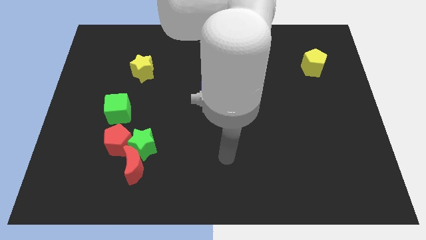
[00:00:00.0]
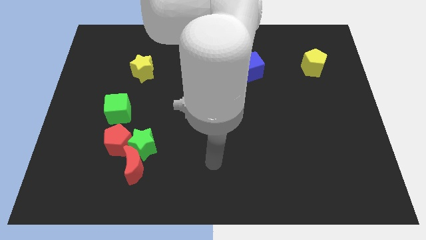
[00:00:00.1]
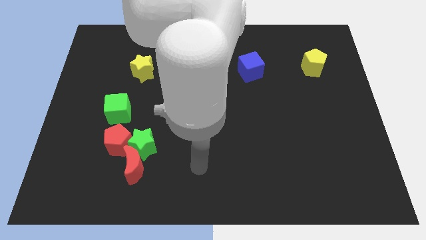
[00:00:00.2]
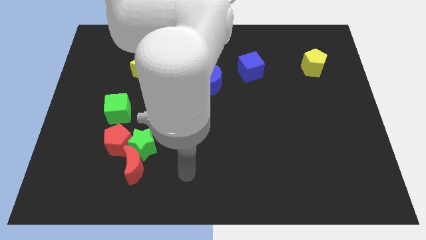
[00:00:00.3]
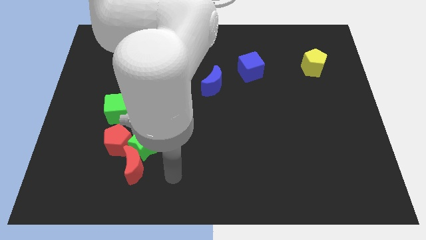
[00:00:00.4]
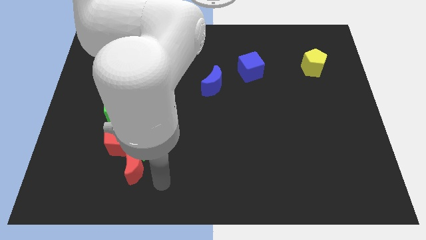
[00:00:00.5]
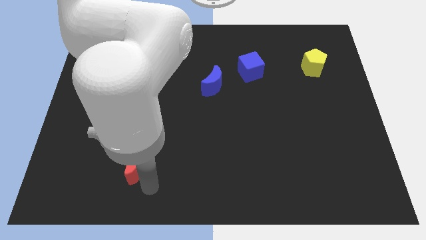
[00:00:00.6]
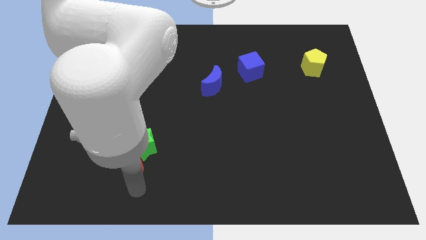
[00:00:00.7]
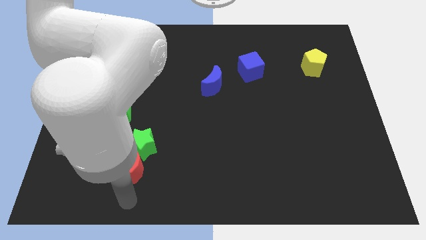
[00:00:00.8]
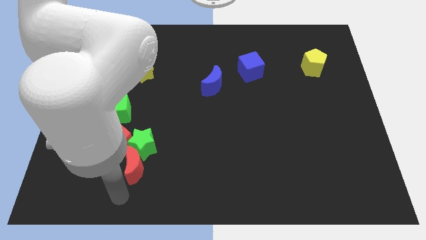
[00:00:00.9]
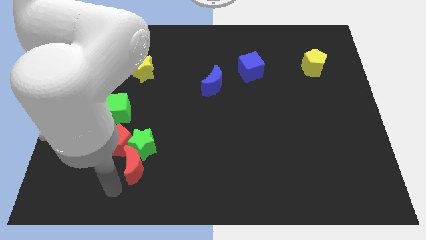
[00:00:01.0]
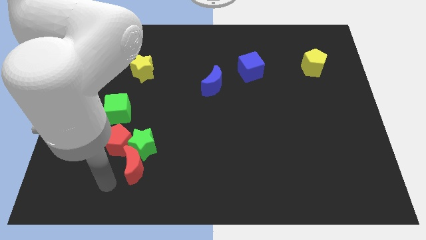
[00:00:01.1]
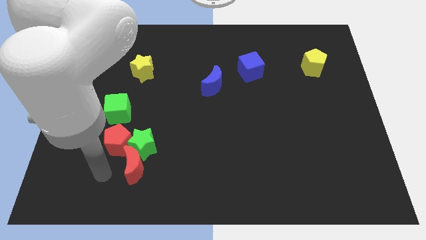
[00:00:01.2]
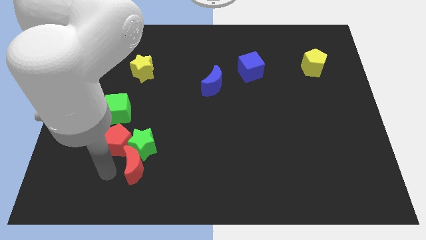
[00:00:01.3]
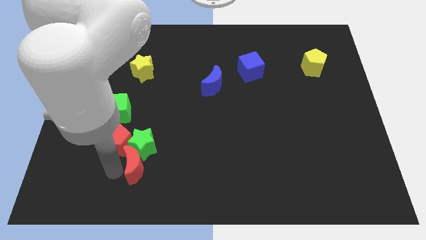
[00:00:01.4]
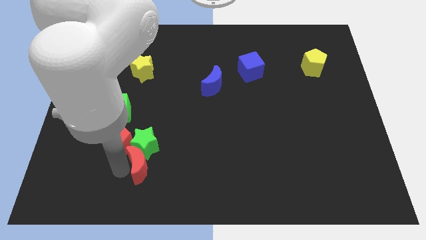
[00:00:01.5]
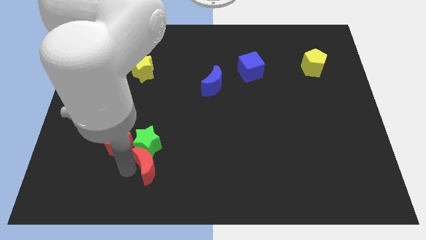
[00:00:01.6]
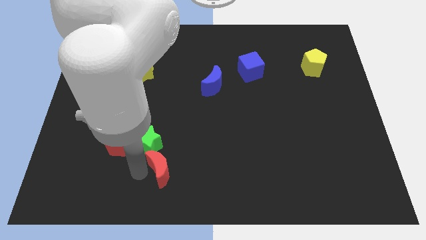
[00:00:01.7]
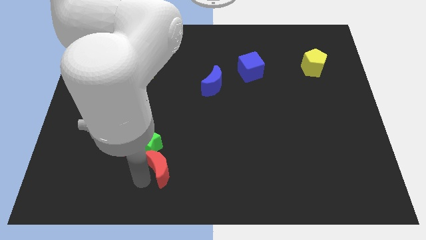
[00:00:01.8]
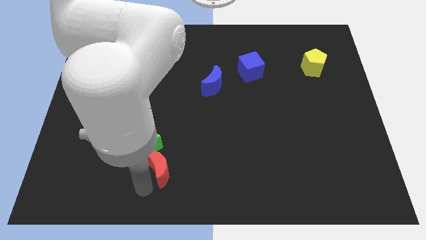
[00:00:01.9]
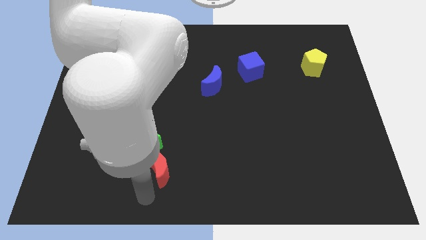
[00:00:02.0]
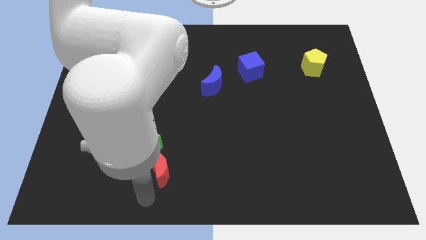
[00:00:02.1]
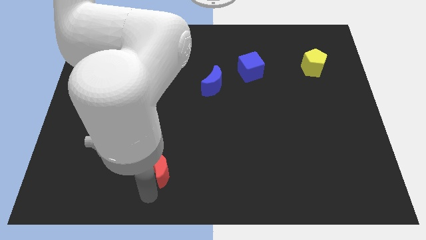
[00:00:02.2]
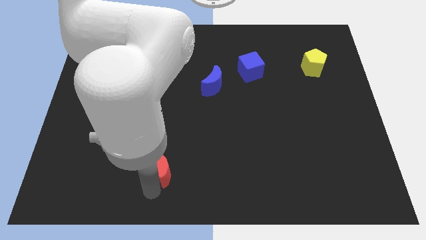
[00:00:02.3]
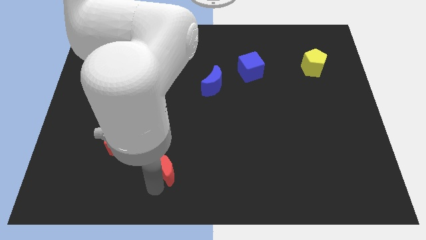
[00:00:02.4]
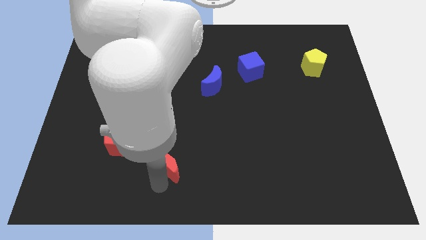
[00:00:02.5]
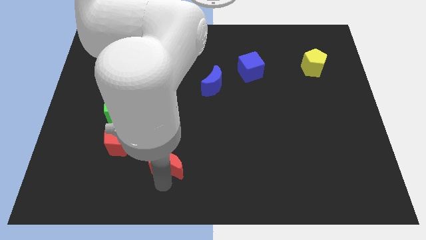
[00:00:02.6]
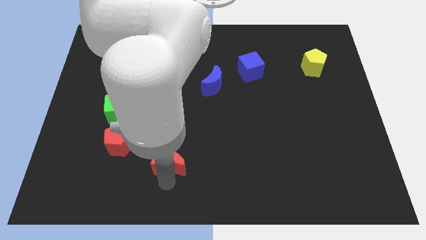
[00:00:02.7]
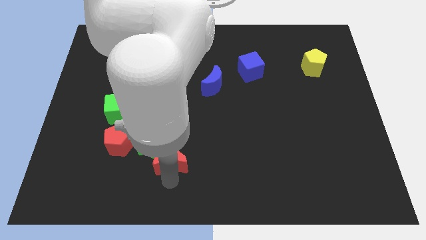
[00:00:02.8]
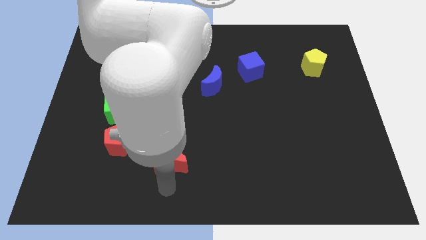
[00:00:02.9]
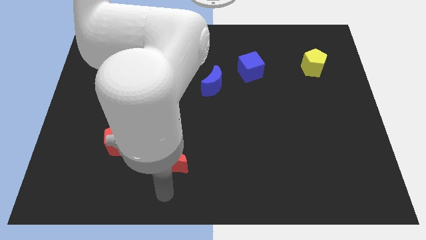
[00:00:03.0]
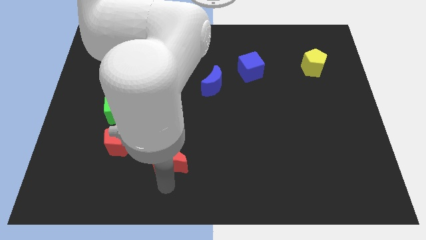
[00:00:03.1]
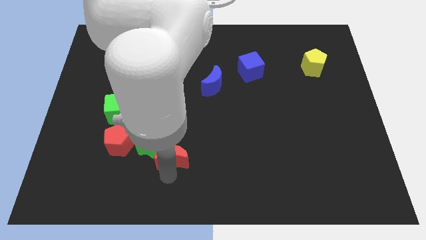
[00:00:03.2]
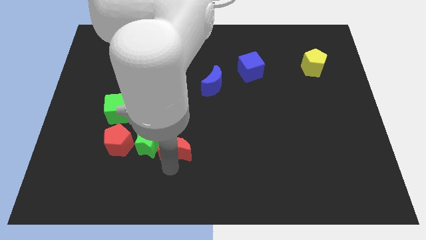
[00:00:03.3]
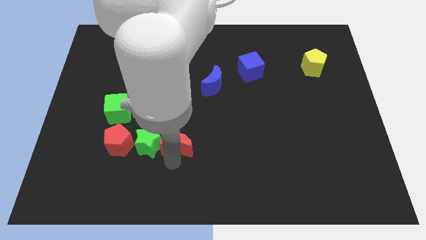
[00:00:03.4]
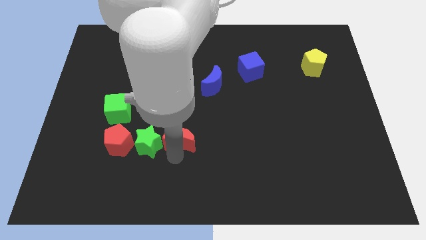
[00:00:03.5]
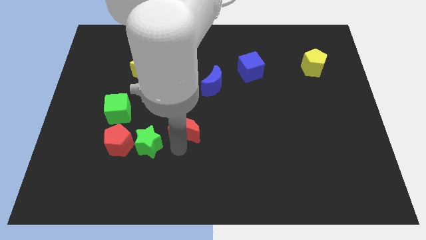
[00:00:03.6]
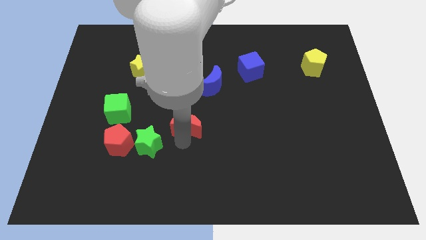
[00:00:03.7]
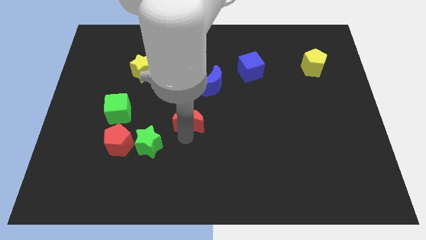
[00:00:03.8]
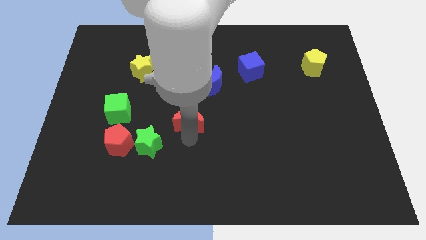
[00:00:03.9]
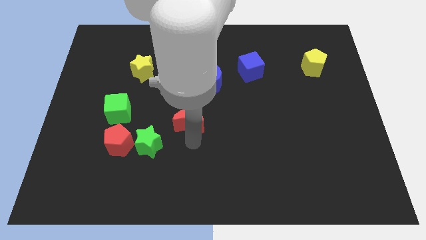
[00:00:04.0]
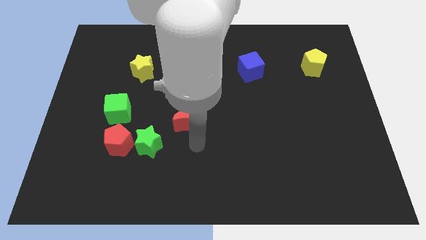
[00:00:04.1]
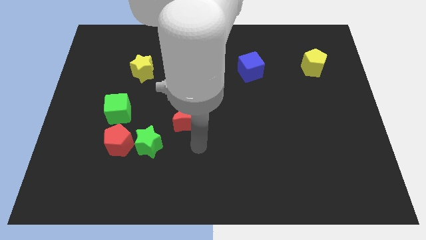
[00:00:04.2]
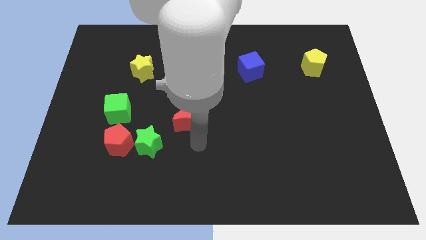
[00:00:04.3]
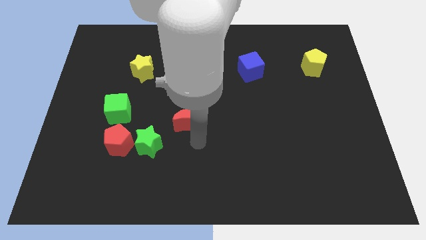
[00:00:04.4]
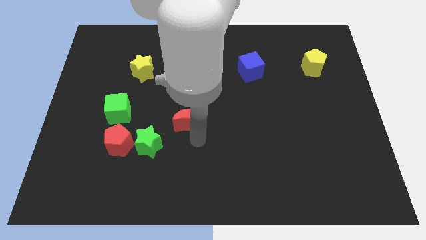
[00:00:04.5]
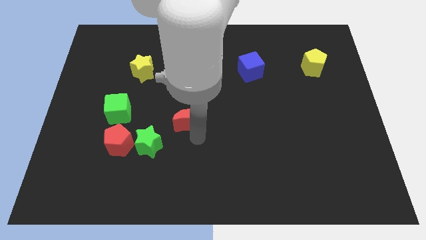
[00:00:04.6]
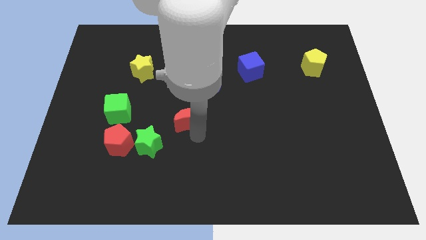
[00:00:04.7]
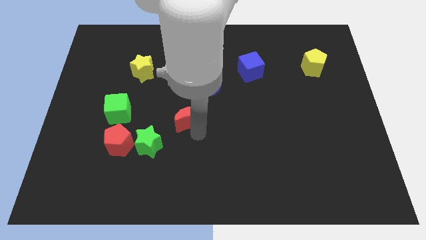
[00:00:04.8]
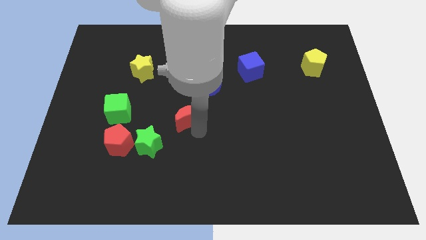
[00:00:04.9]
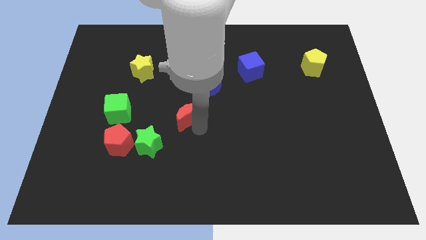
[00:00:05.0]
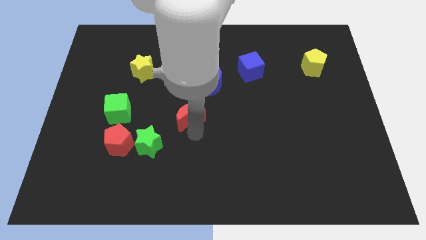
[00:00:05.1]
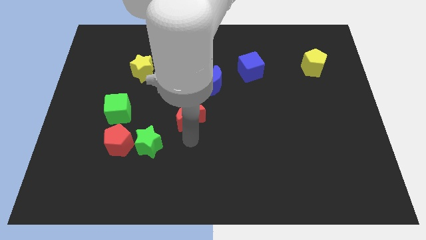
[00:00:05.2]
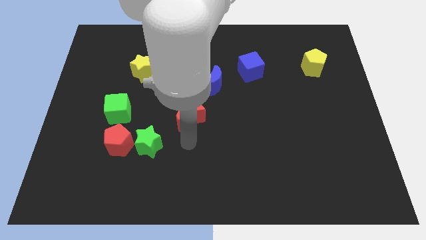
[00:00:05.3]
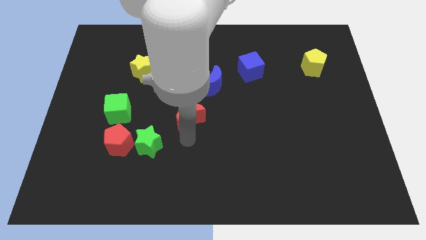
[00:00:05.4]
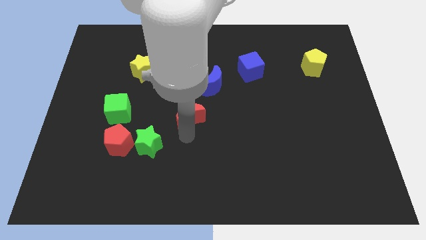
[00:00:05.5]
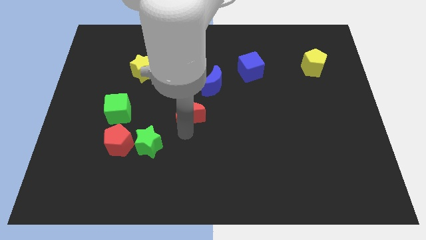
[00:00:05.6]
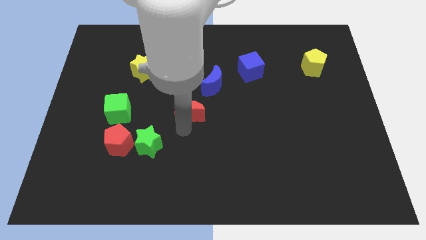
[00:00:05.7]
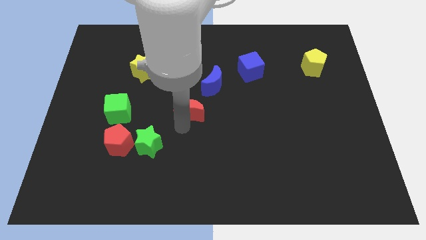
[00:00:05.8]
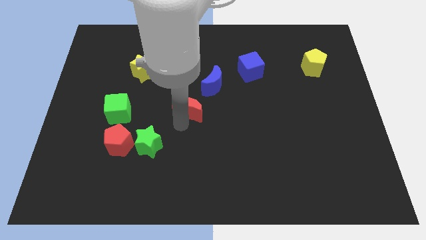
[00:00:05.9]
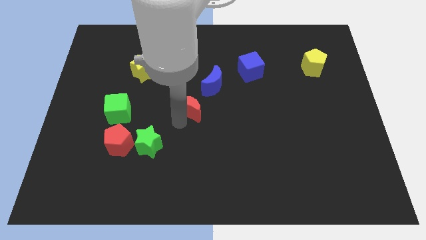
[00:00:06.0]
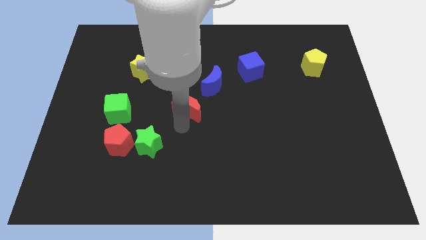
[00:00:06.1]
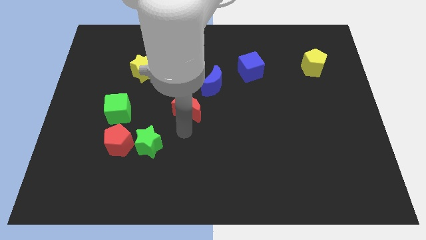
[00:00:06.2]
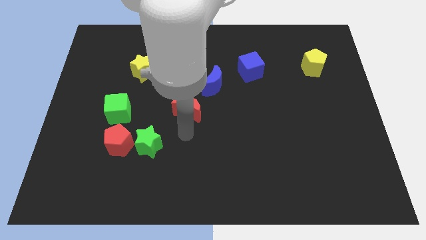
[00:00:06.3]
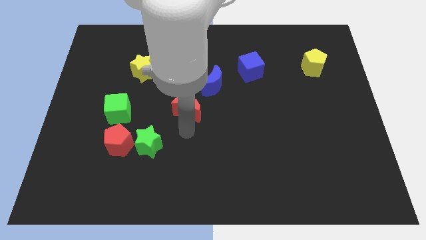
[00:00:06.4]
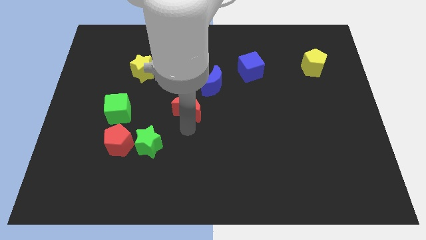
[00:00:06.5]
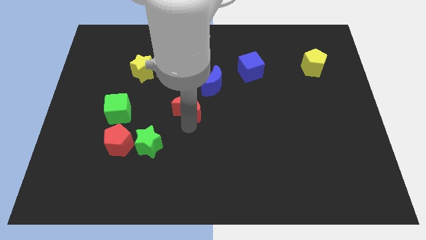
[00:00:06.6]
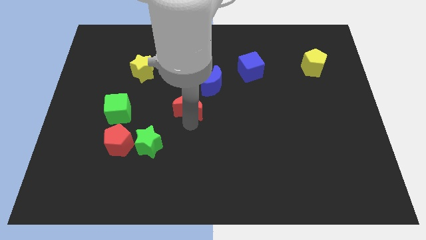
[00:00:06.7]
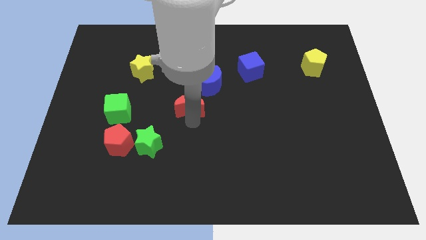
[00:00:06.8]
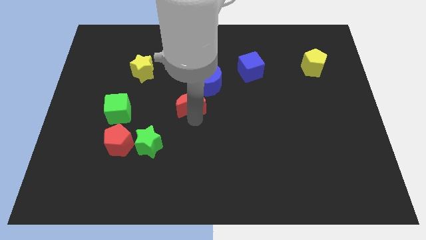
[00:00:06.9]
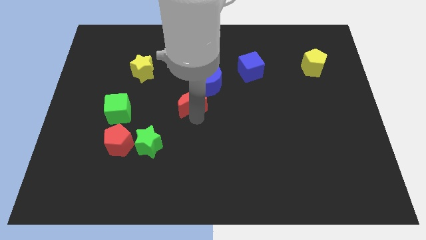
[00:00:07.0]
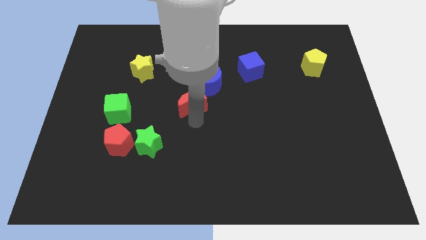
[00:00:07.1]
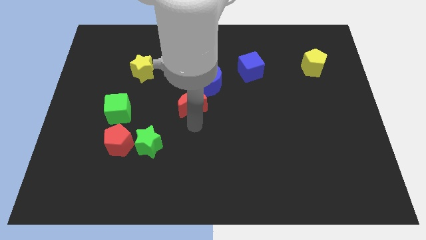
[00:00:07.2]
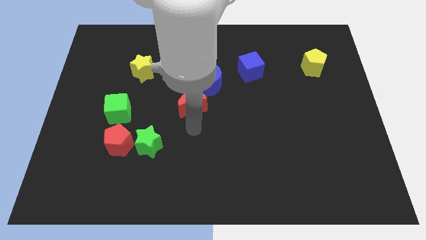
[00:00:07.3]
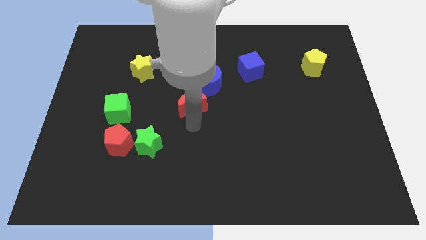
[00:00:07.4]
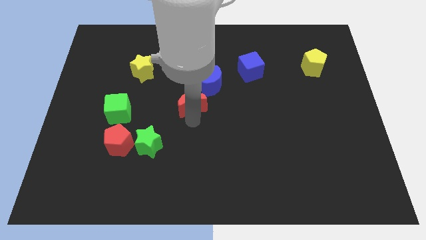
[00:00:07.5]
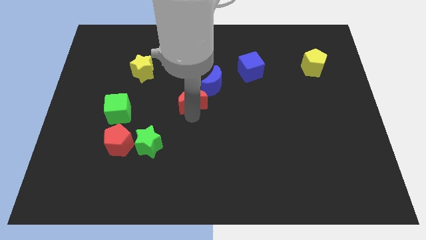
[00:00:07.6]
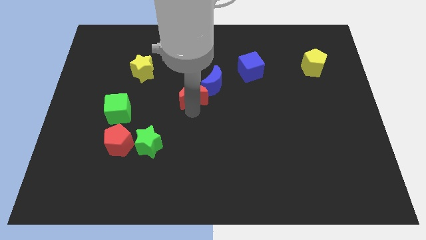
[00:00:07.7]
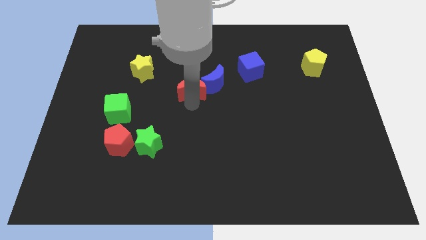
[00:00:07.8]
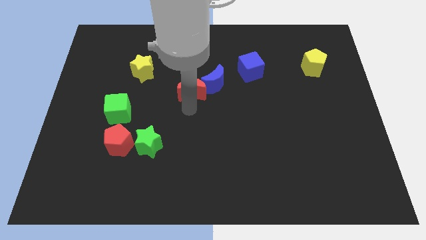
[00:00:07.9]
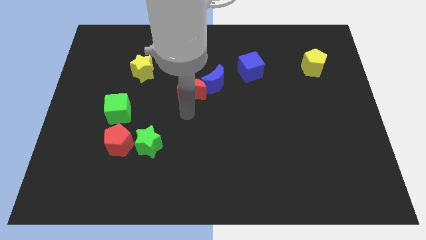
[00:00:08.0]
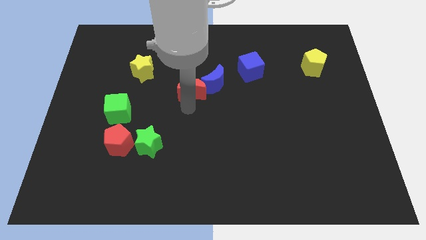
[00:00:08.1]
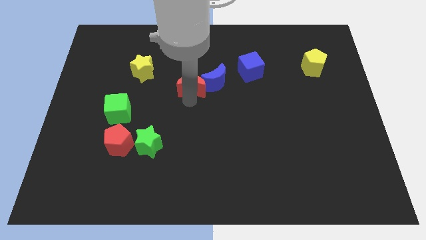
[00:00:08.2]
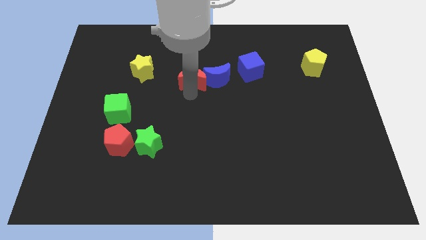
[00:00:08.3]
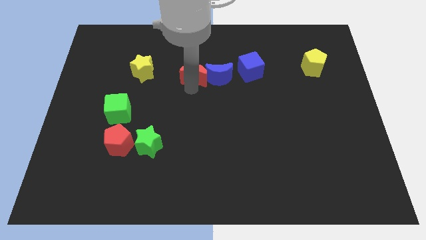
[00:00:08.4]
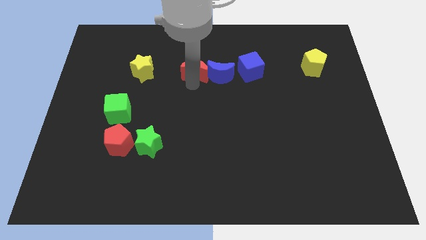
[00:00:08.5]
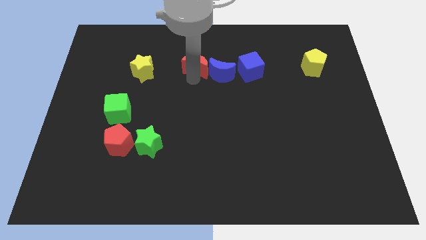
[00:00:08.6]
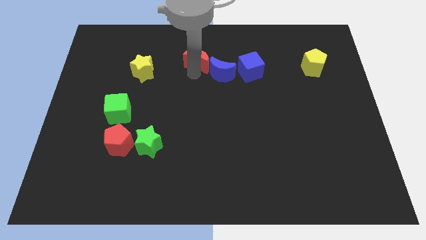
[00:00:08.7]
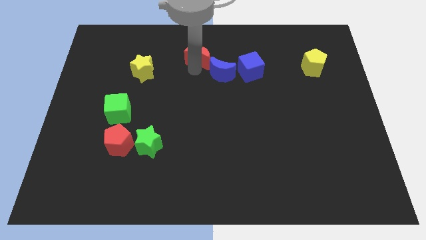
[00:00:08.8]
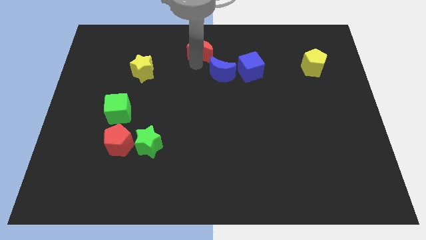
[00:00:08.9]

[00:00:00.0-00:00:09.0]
put the red moon to the top
